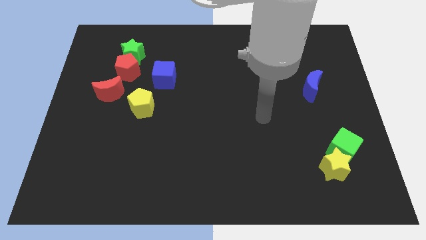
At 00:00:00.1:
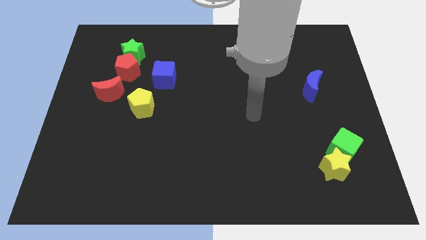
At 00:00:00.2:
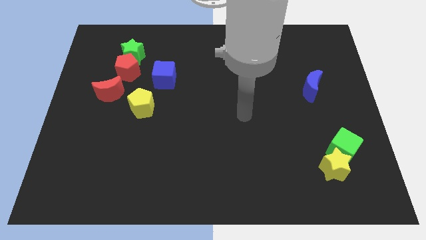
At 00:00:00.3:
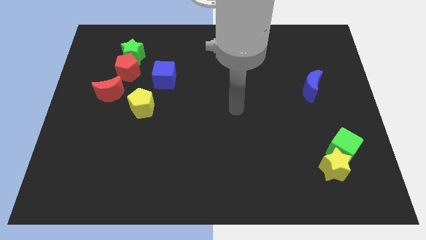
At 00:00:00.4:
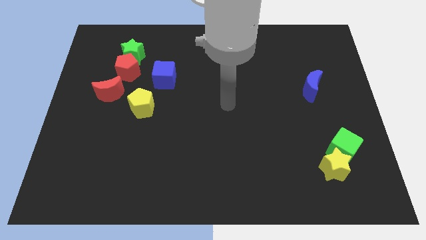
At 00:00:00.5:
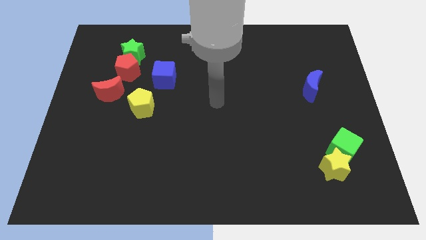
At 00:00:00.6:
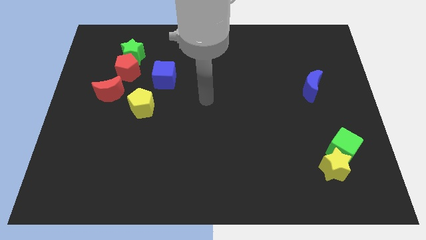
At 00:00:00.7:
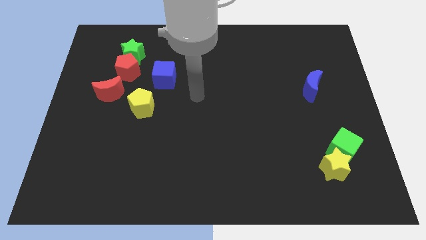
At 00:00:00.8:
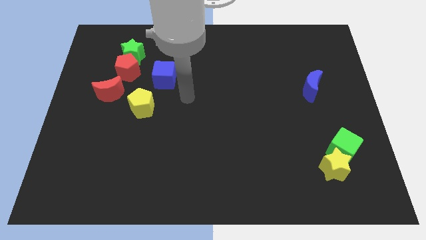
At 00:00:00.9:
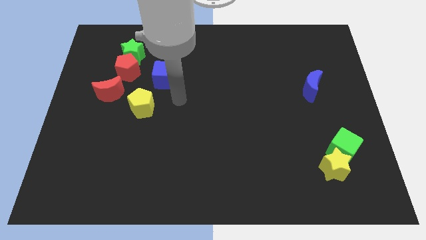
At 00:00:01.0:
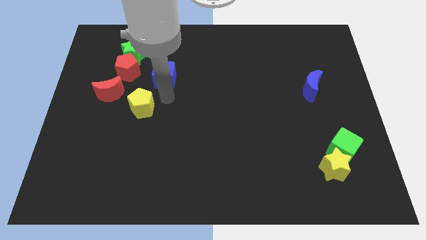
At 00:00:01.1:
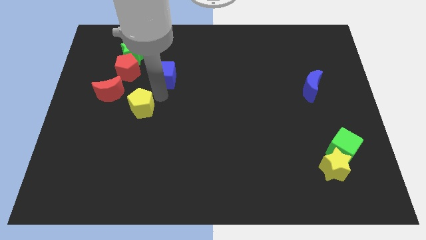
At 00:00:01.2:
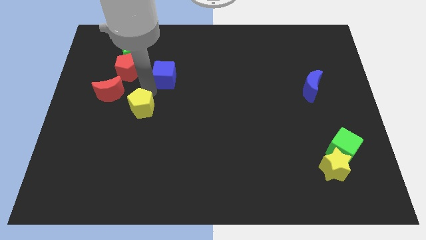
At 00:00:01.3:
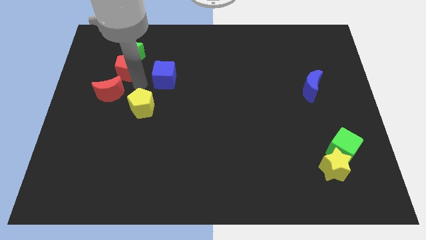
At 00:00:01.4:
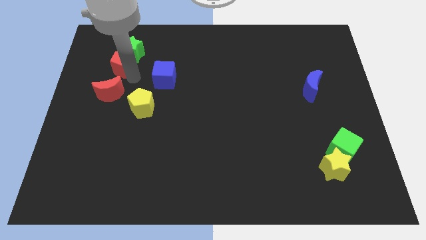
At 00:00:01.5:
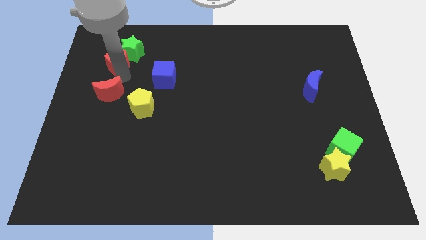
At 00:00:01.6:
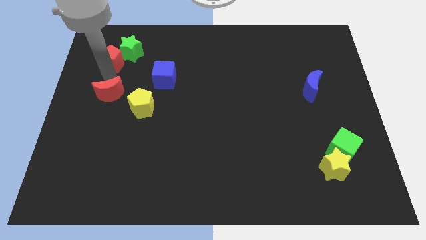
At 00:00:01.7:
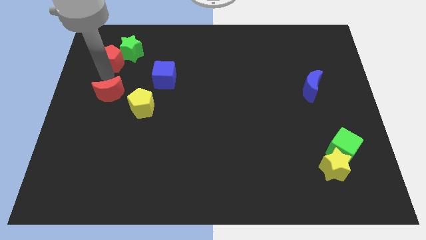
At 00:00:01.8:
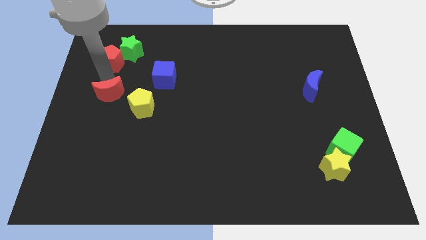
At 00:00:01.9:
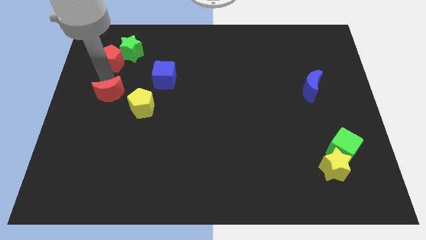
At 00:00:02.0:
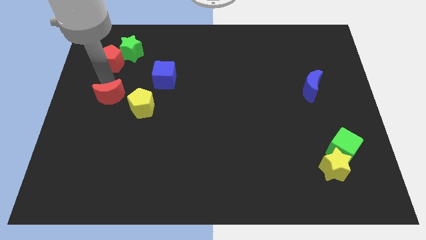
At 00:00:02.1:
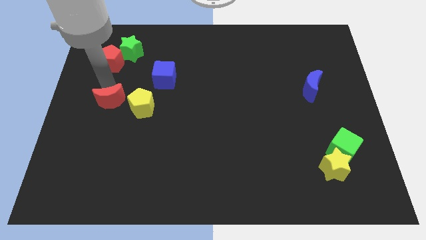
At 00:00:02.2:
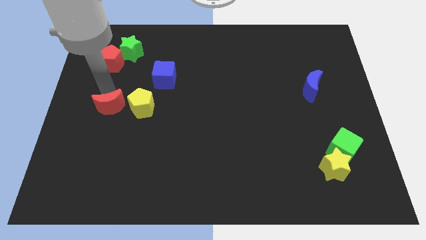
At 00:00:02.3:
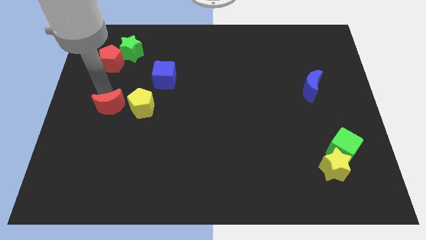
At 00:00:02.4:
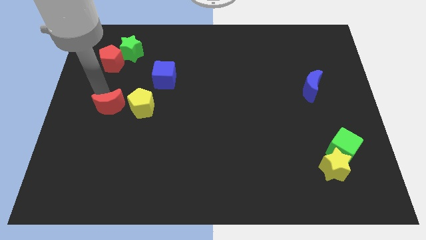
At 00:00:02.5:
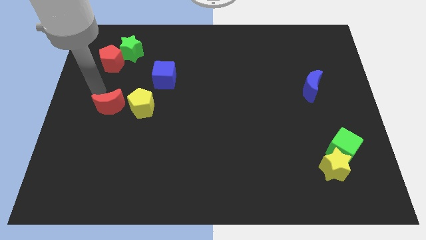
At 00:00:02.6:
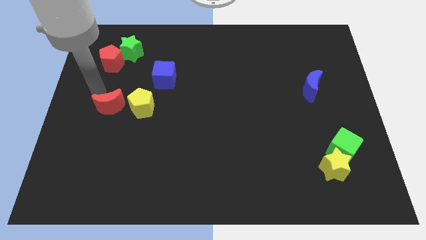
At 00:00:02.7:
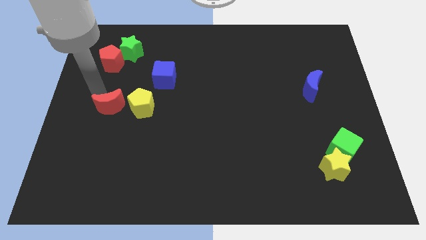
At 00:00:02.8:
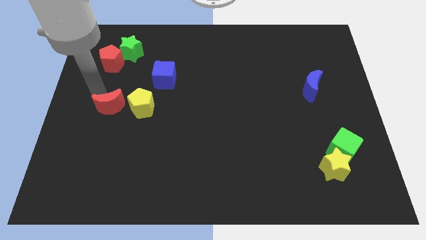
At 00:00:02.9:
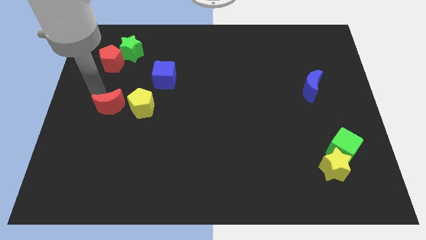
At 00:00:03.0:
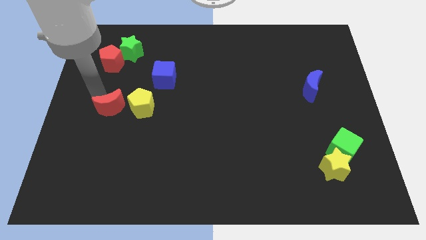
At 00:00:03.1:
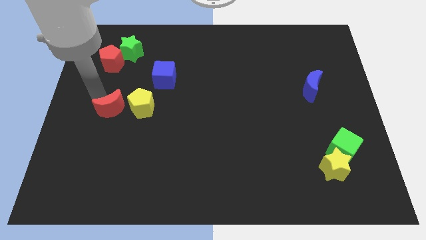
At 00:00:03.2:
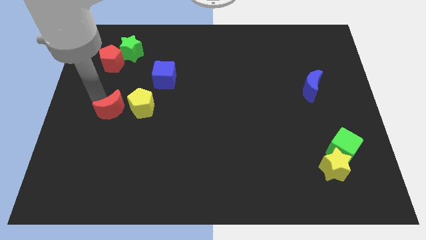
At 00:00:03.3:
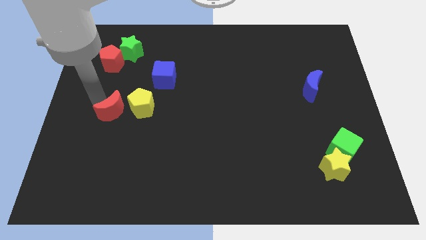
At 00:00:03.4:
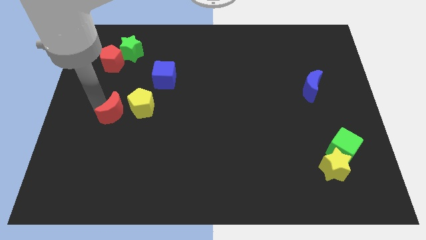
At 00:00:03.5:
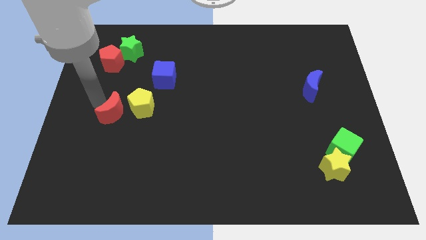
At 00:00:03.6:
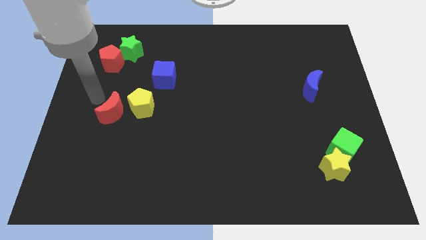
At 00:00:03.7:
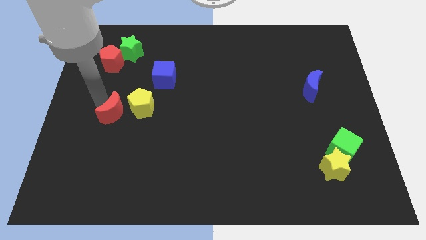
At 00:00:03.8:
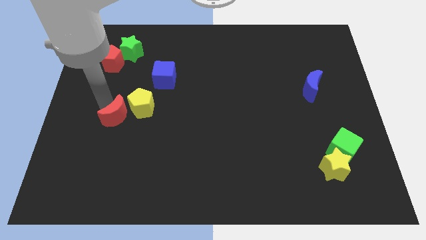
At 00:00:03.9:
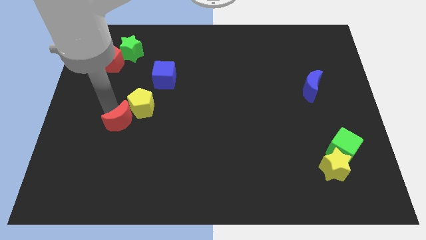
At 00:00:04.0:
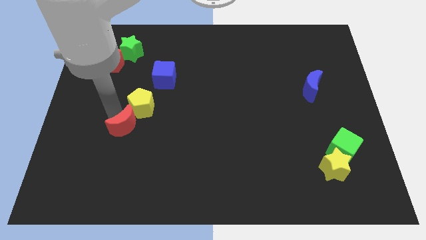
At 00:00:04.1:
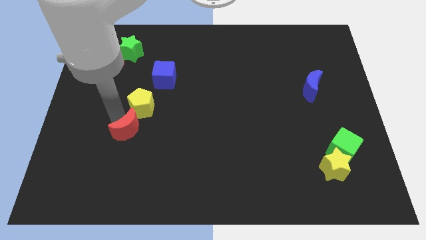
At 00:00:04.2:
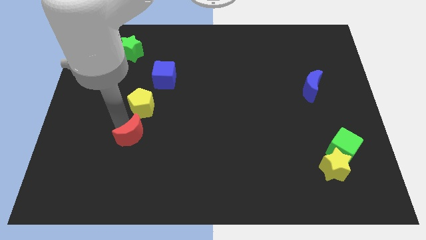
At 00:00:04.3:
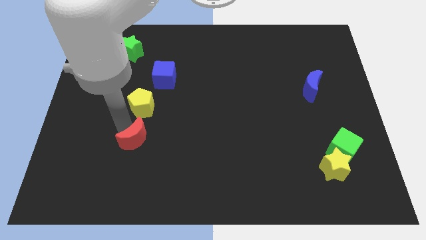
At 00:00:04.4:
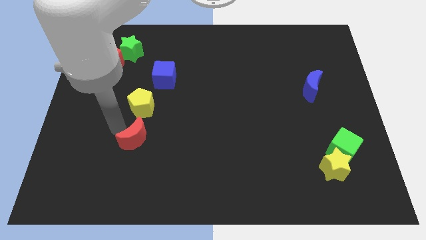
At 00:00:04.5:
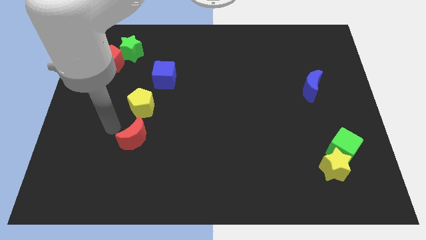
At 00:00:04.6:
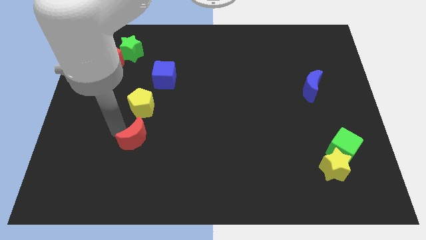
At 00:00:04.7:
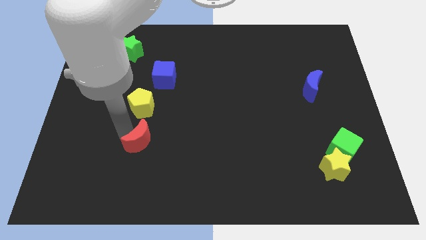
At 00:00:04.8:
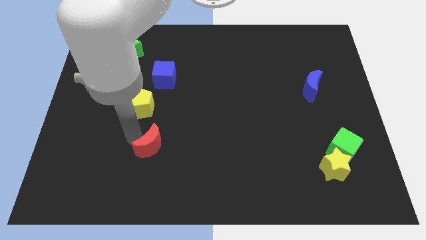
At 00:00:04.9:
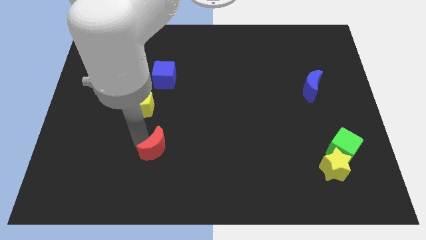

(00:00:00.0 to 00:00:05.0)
slide the red moon down and to the right diagonally

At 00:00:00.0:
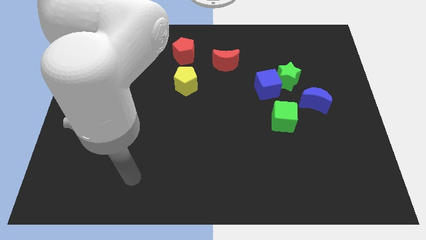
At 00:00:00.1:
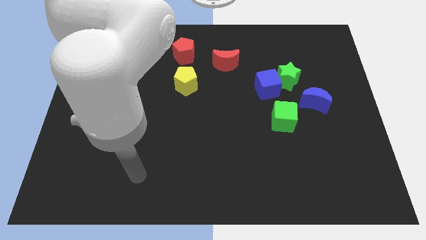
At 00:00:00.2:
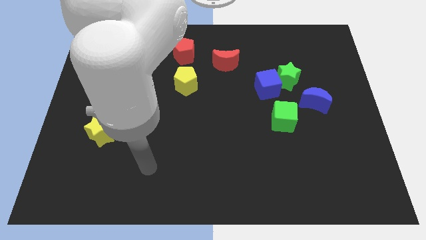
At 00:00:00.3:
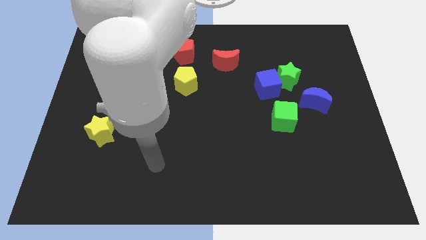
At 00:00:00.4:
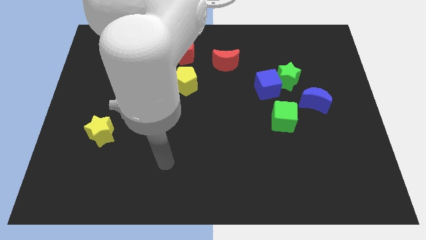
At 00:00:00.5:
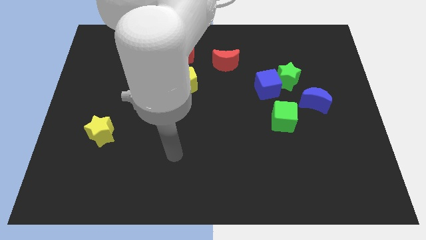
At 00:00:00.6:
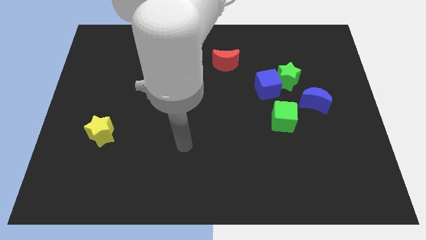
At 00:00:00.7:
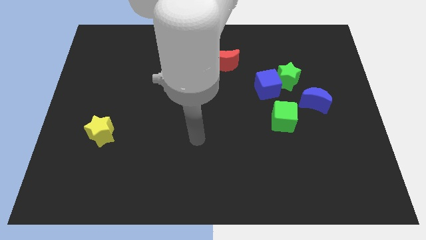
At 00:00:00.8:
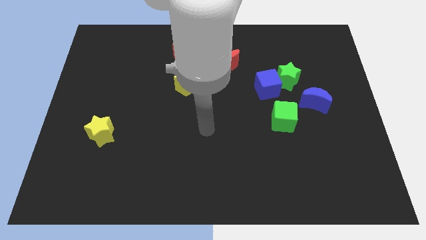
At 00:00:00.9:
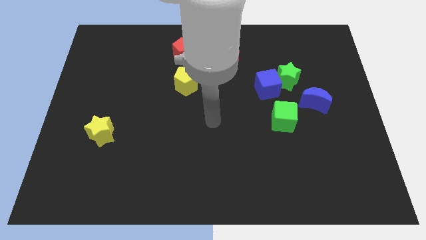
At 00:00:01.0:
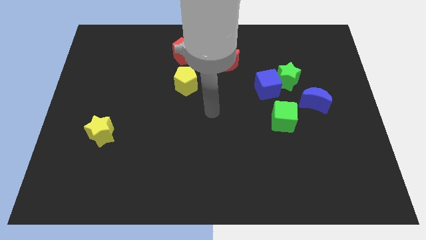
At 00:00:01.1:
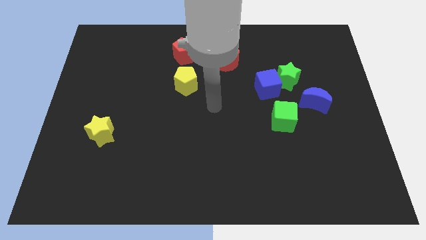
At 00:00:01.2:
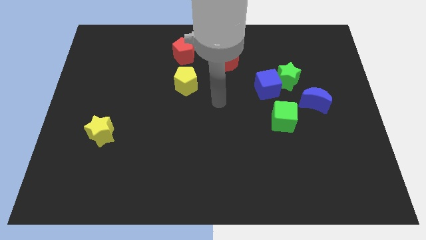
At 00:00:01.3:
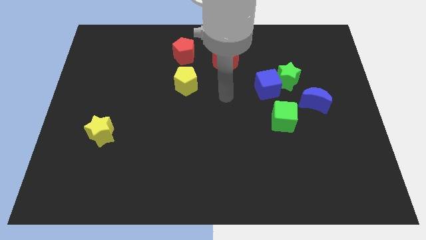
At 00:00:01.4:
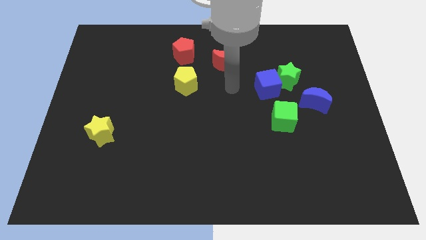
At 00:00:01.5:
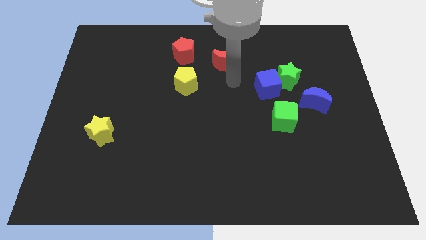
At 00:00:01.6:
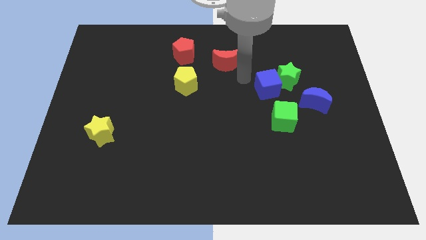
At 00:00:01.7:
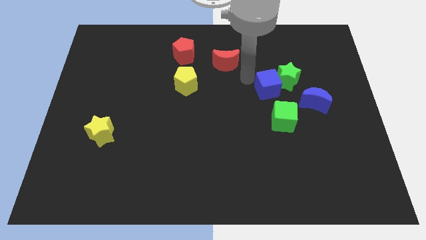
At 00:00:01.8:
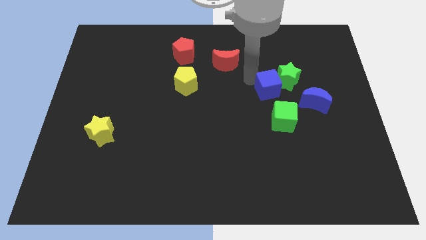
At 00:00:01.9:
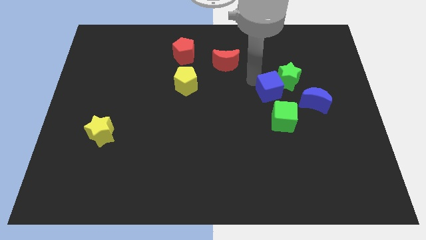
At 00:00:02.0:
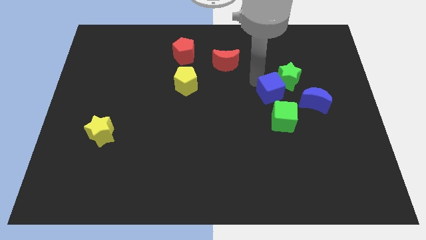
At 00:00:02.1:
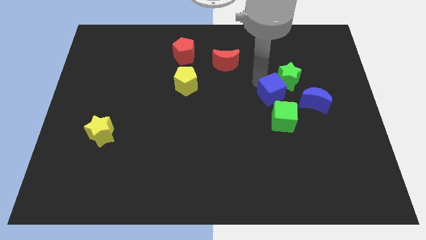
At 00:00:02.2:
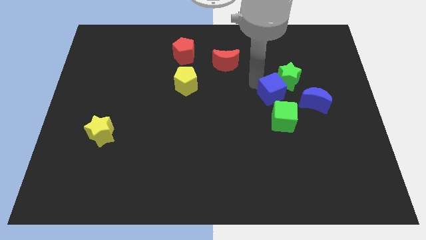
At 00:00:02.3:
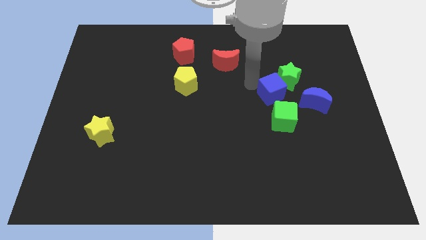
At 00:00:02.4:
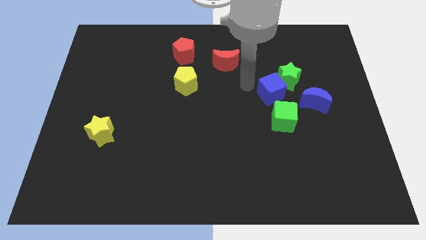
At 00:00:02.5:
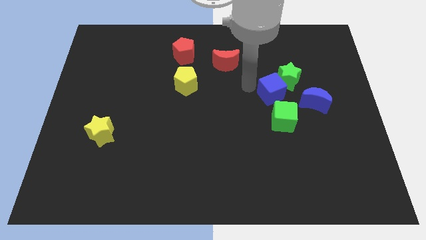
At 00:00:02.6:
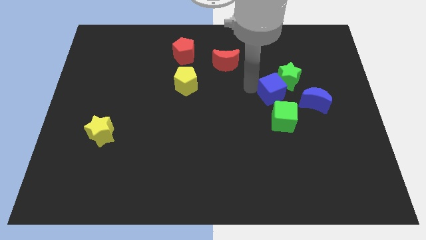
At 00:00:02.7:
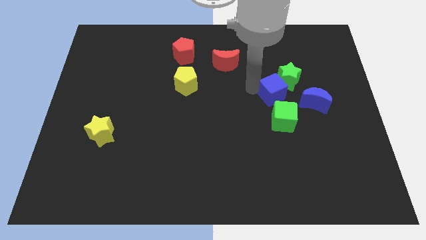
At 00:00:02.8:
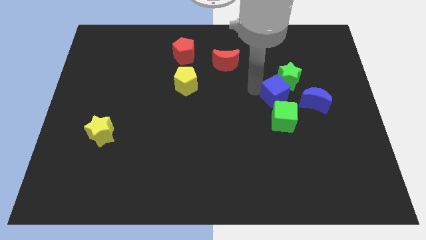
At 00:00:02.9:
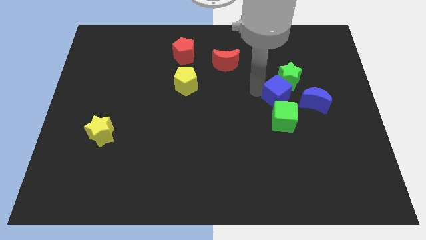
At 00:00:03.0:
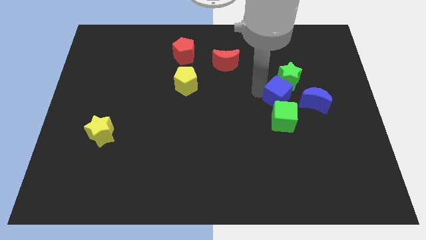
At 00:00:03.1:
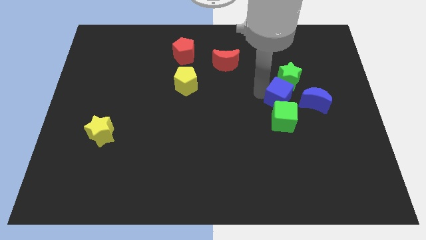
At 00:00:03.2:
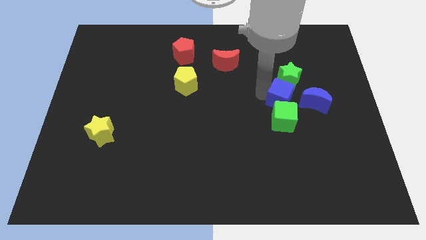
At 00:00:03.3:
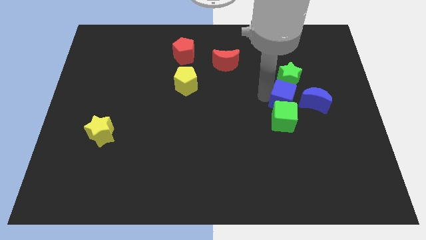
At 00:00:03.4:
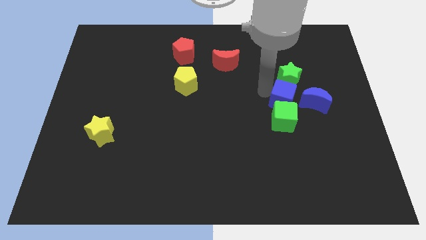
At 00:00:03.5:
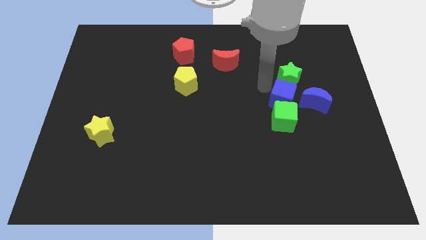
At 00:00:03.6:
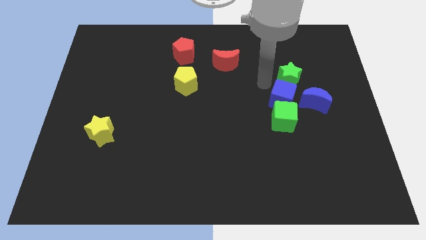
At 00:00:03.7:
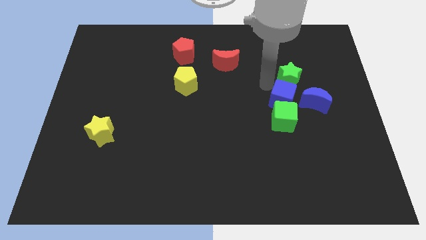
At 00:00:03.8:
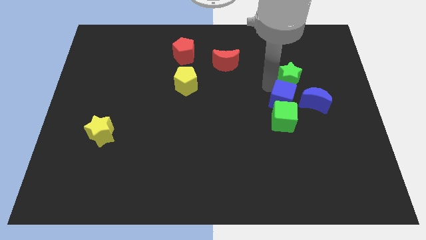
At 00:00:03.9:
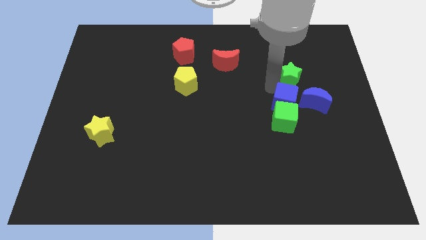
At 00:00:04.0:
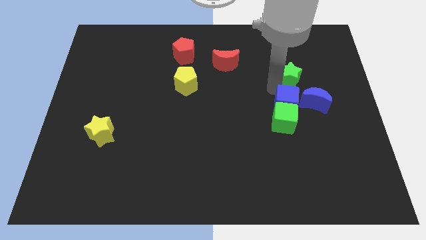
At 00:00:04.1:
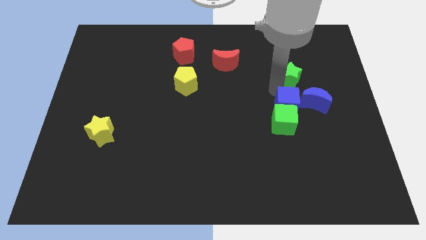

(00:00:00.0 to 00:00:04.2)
slightly move the blue cube down and then right
